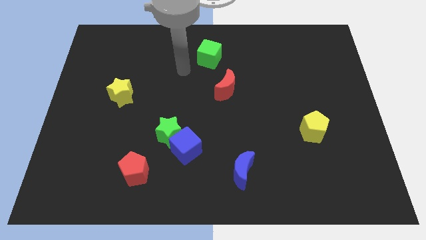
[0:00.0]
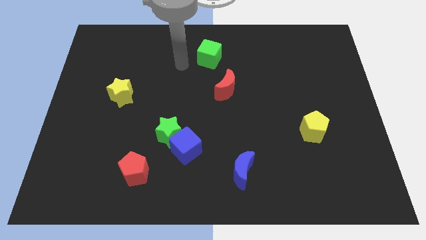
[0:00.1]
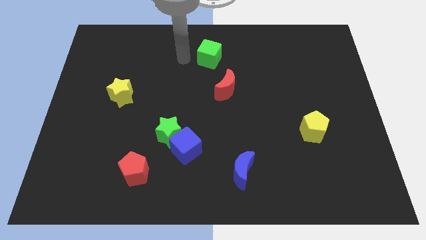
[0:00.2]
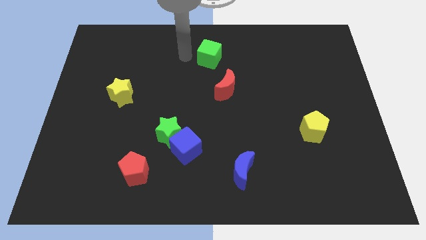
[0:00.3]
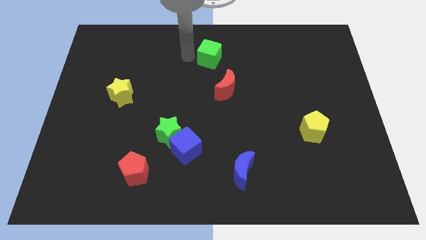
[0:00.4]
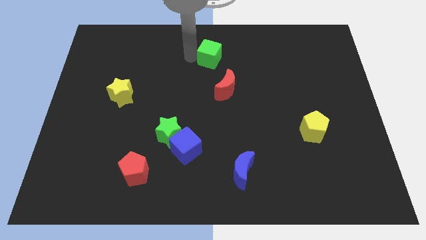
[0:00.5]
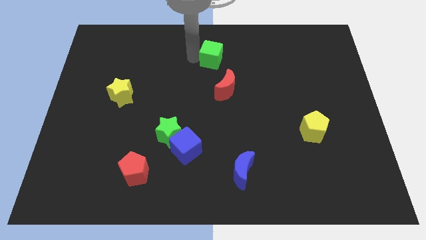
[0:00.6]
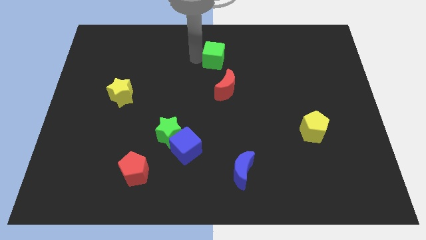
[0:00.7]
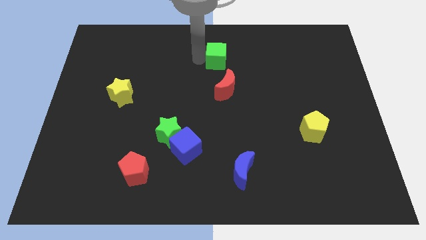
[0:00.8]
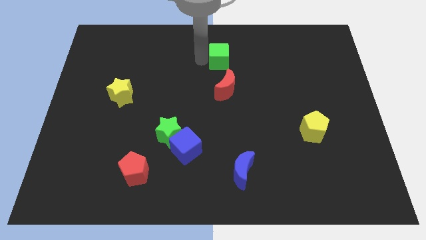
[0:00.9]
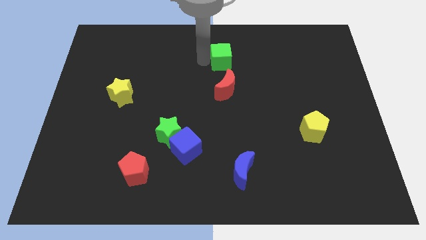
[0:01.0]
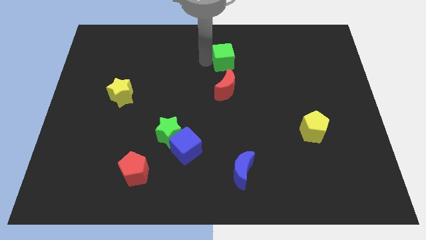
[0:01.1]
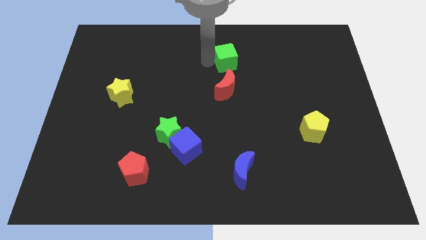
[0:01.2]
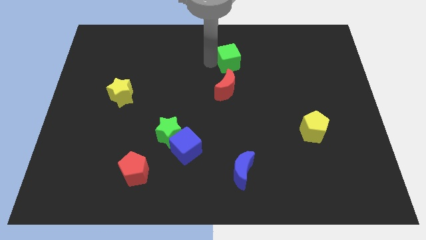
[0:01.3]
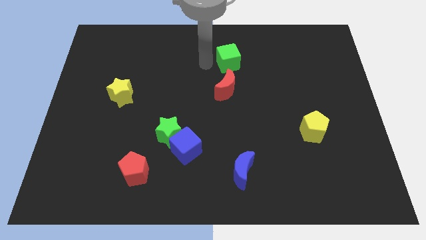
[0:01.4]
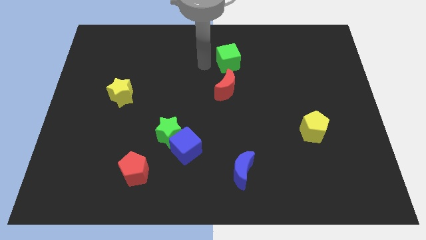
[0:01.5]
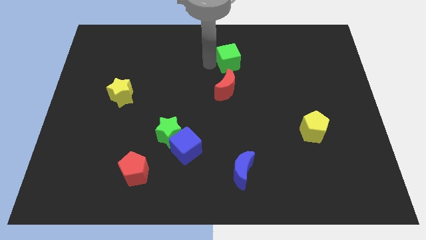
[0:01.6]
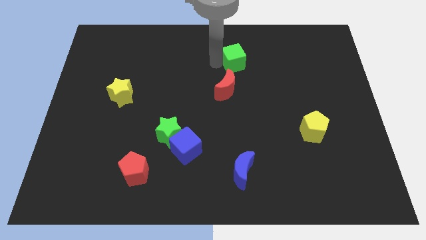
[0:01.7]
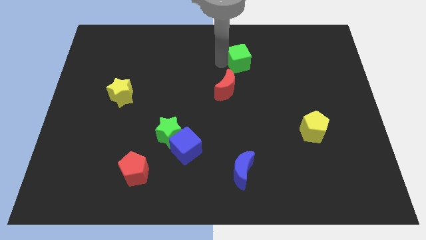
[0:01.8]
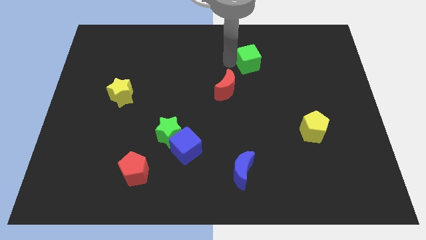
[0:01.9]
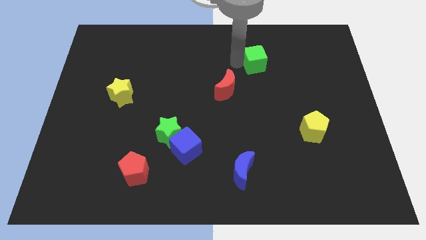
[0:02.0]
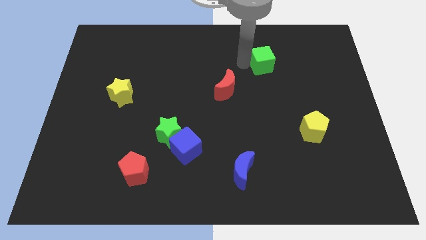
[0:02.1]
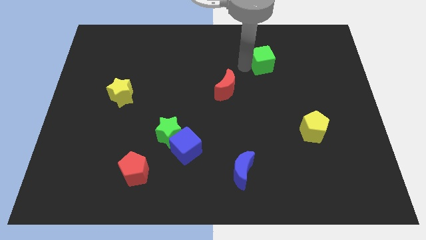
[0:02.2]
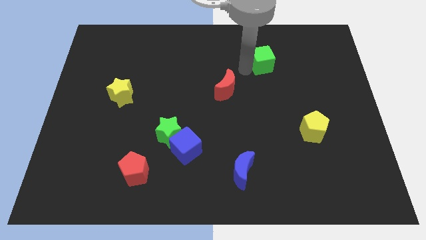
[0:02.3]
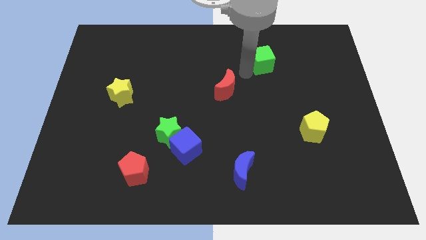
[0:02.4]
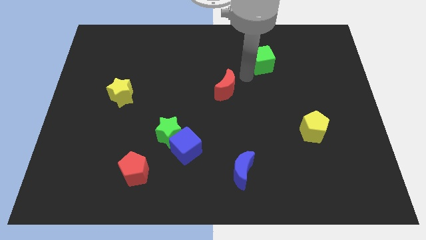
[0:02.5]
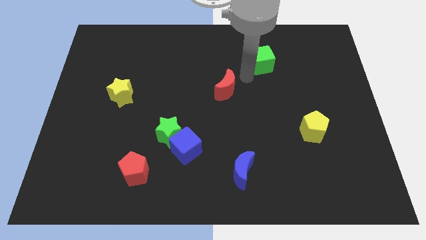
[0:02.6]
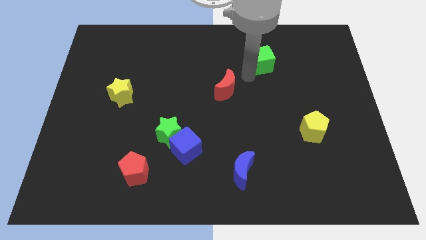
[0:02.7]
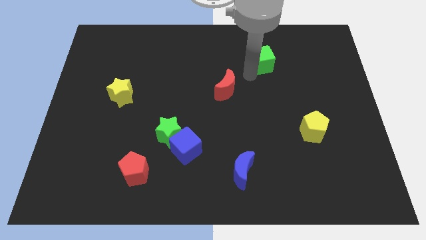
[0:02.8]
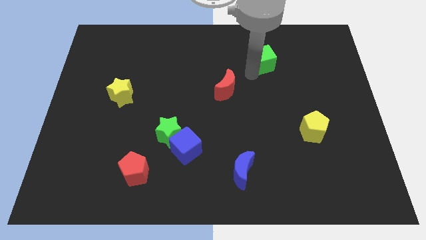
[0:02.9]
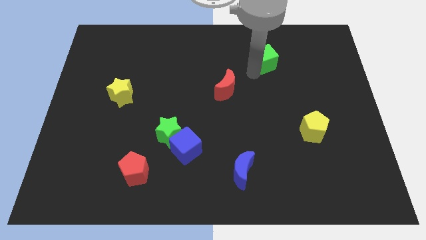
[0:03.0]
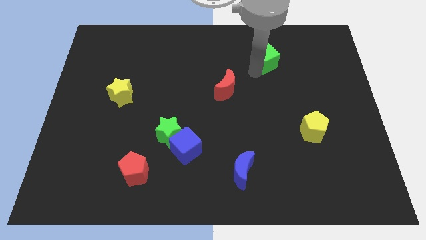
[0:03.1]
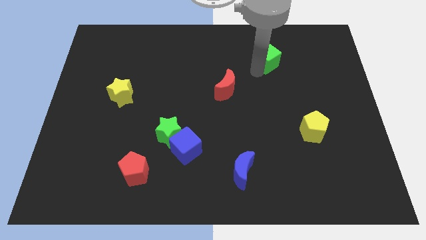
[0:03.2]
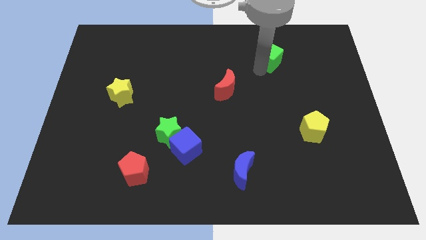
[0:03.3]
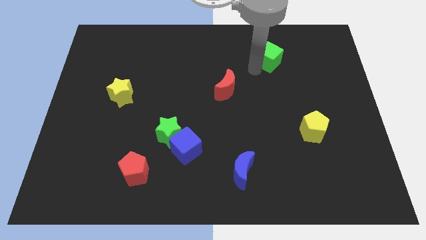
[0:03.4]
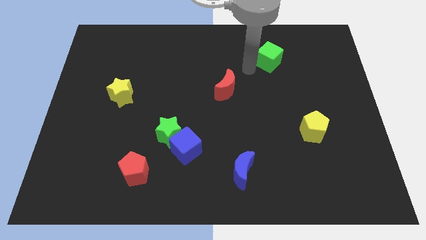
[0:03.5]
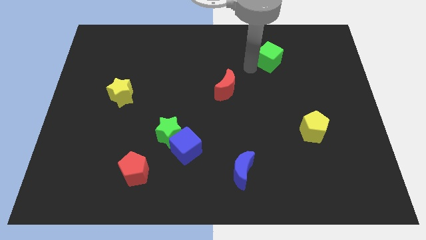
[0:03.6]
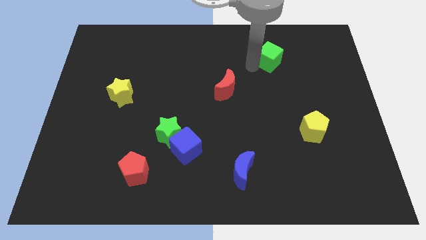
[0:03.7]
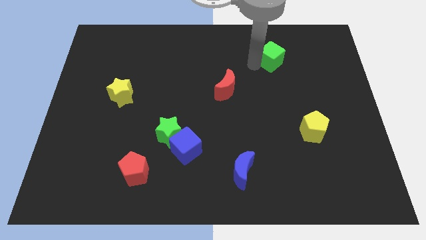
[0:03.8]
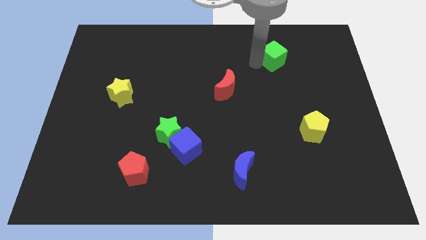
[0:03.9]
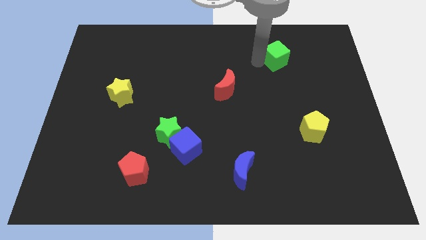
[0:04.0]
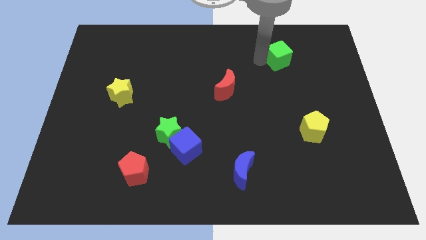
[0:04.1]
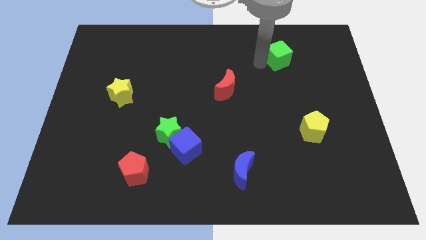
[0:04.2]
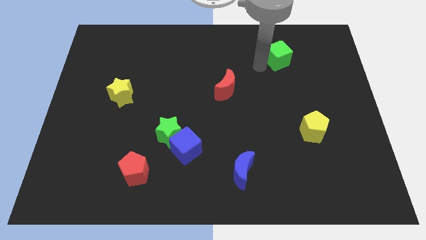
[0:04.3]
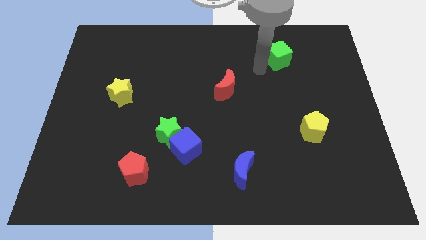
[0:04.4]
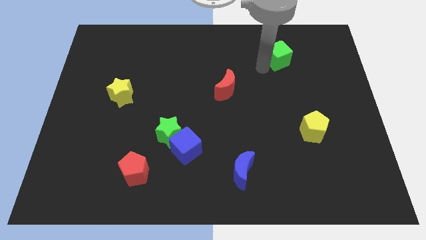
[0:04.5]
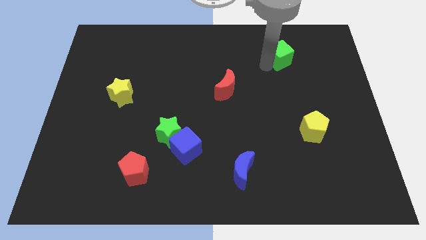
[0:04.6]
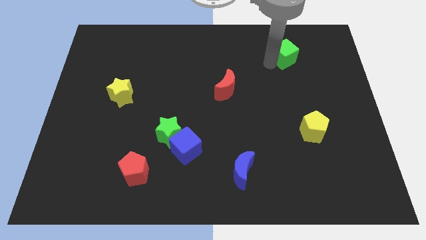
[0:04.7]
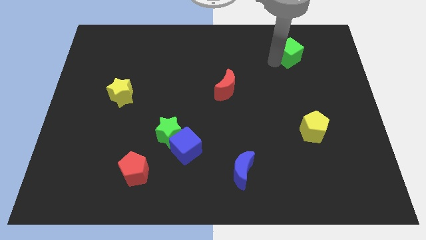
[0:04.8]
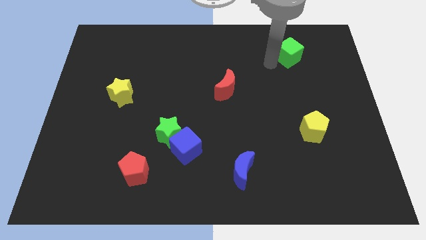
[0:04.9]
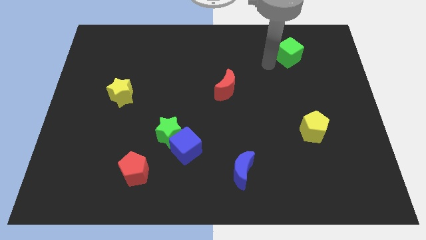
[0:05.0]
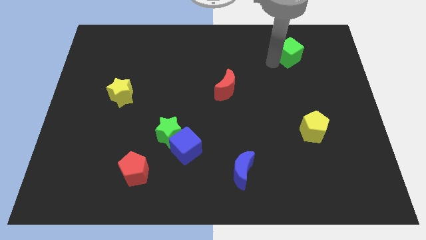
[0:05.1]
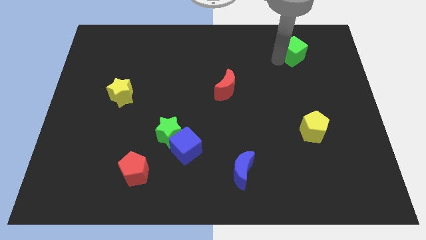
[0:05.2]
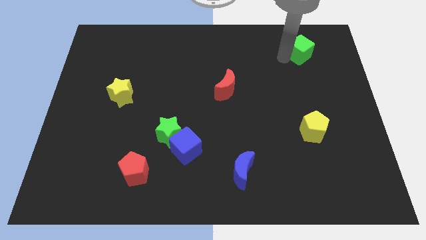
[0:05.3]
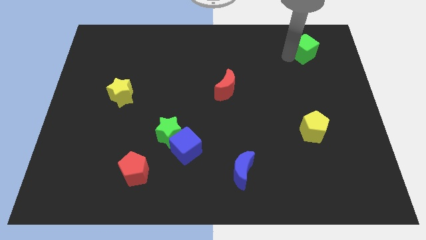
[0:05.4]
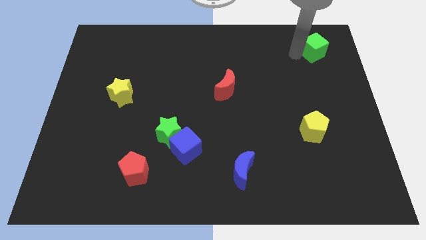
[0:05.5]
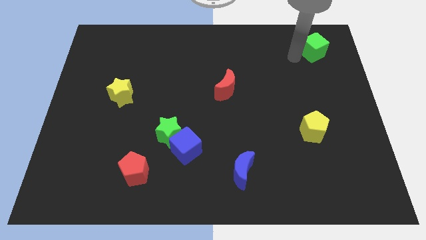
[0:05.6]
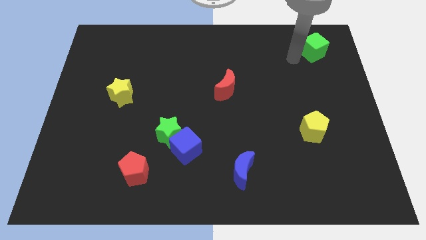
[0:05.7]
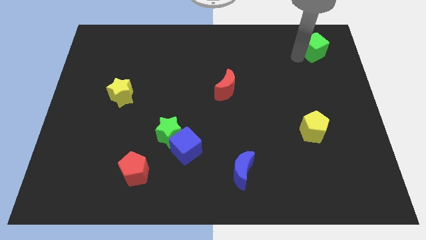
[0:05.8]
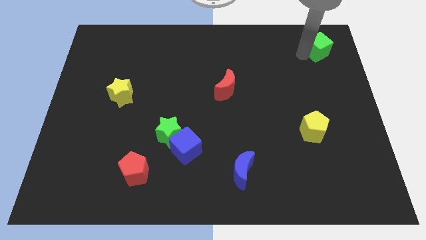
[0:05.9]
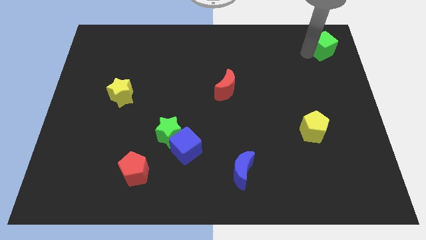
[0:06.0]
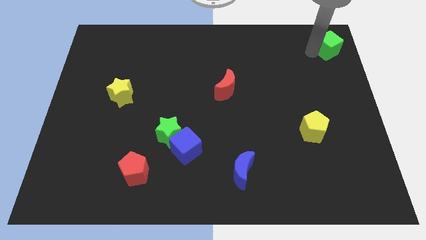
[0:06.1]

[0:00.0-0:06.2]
put the green cube to the top right
